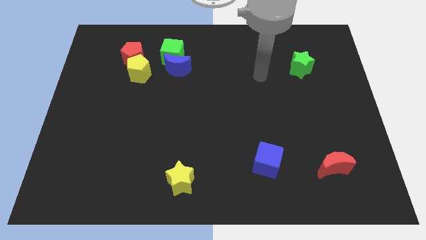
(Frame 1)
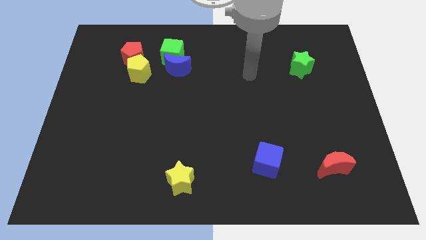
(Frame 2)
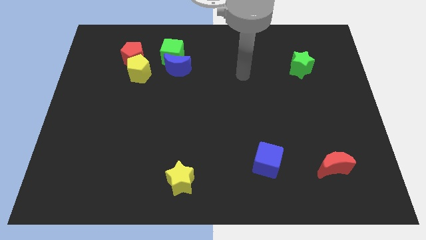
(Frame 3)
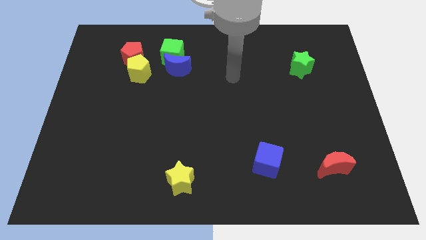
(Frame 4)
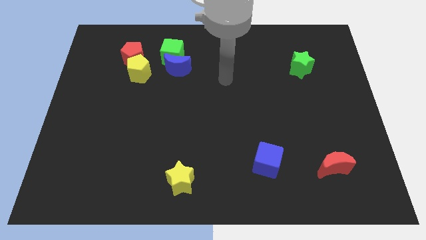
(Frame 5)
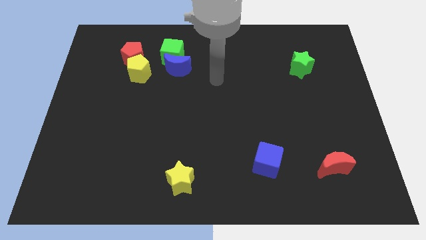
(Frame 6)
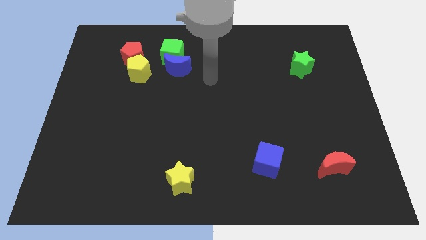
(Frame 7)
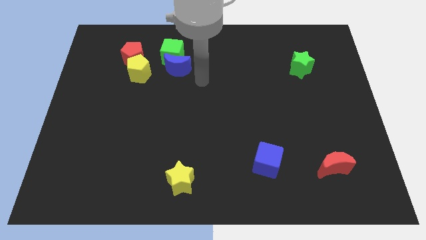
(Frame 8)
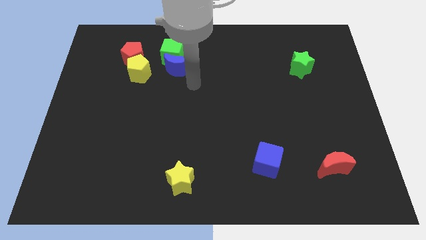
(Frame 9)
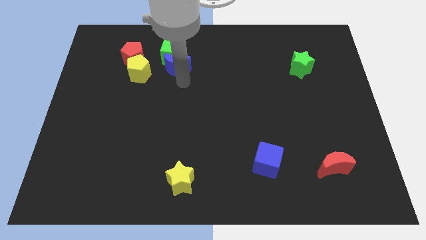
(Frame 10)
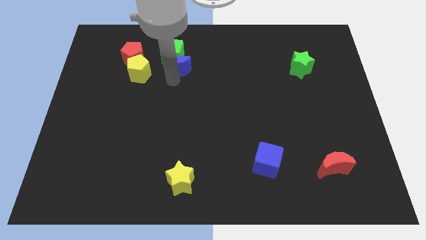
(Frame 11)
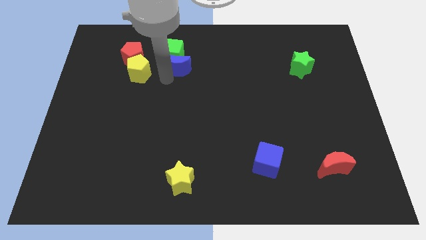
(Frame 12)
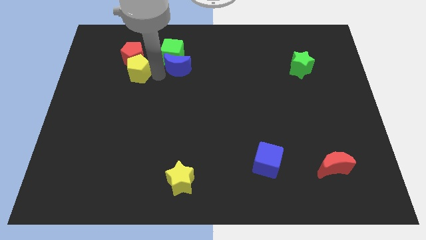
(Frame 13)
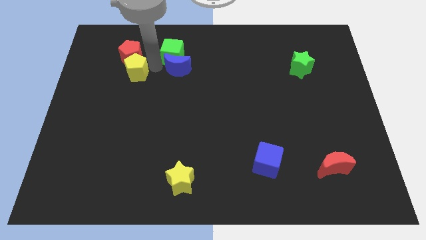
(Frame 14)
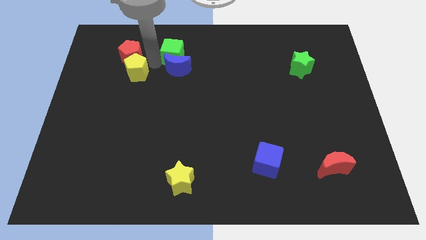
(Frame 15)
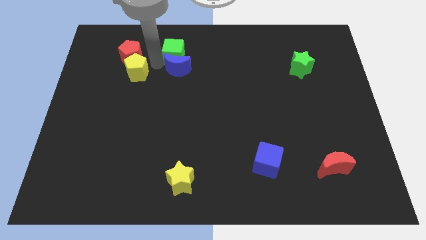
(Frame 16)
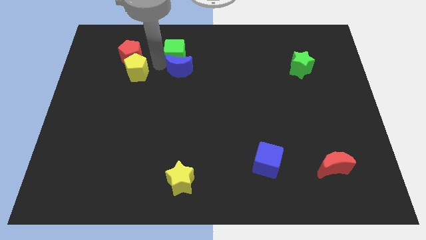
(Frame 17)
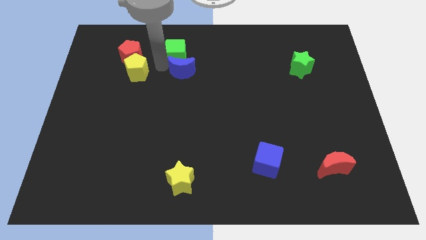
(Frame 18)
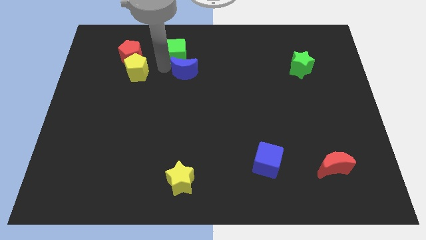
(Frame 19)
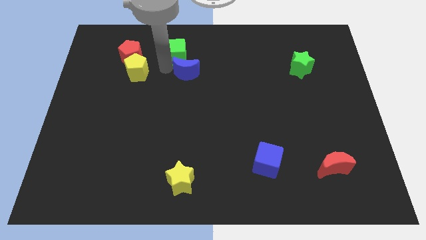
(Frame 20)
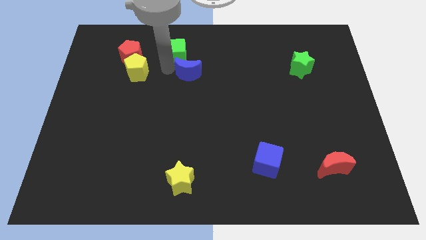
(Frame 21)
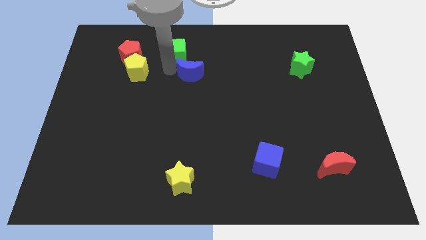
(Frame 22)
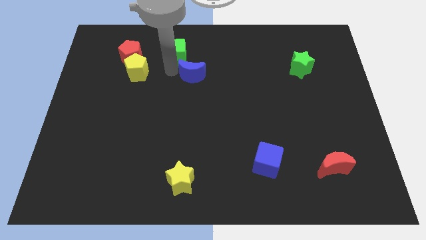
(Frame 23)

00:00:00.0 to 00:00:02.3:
separate the blue moon from the green cube and yellow pentagon

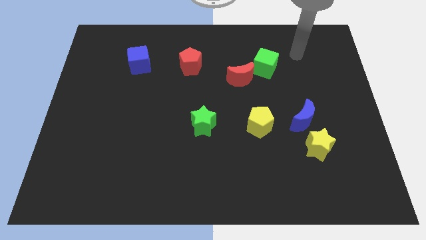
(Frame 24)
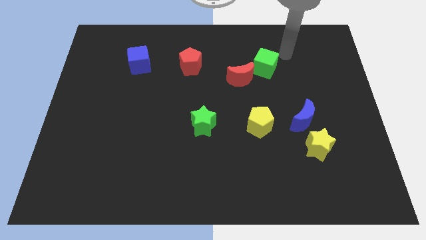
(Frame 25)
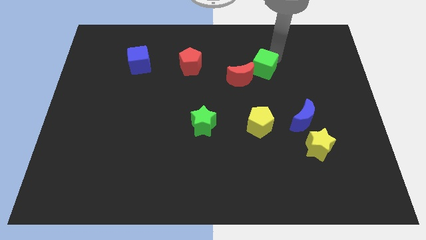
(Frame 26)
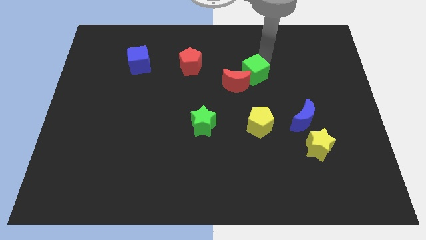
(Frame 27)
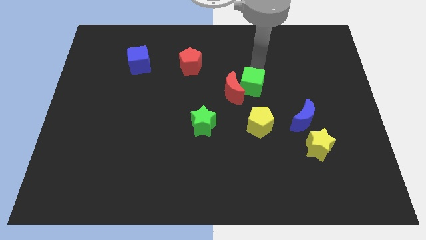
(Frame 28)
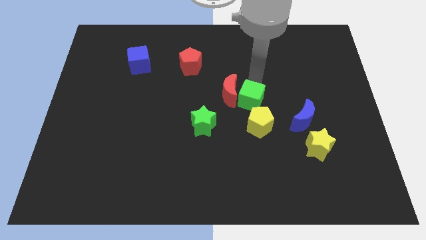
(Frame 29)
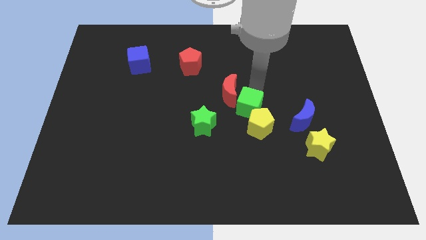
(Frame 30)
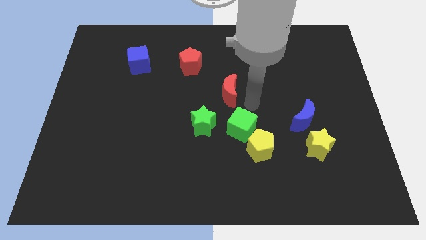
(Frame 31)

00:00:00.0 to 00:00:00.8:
pull the red moon apart from the green cube

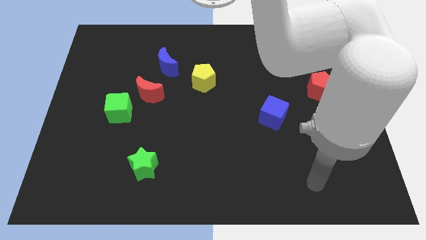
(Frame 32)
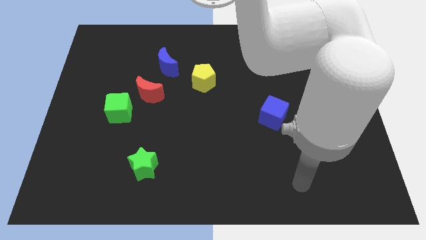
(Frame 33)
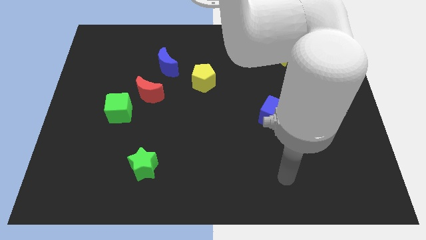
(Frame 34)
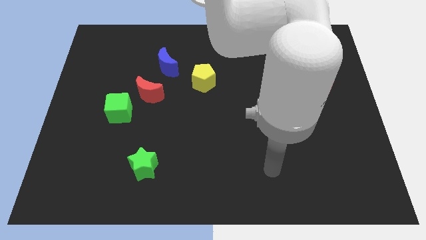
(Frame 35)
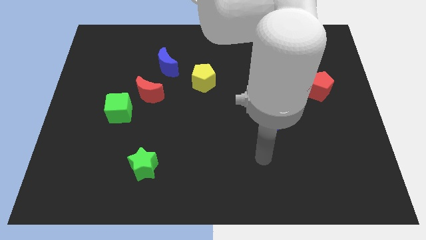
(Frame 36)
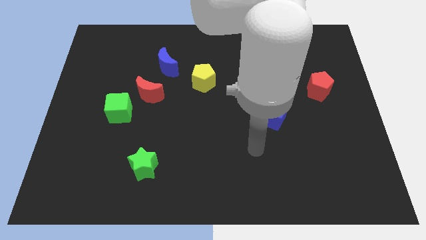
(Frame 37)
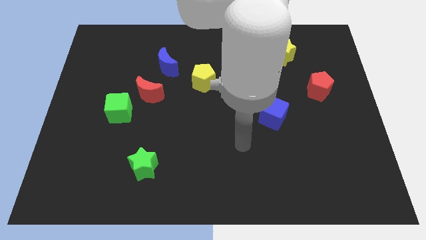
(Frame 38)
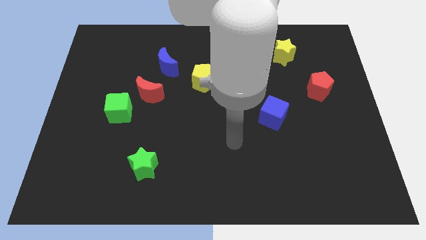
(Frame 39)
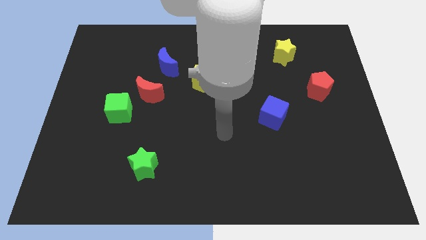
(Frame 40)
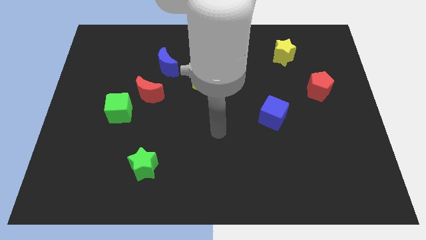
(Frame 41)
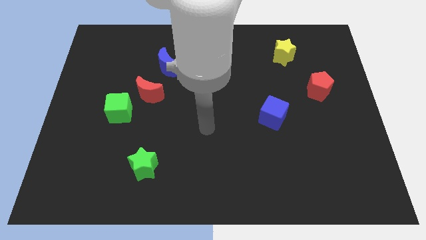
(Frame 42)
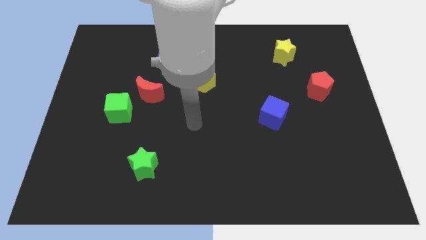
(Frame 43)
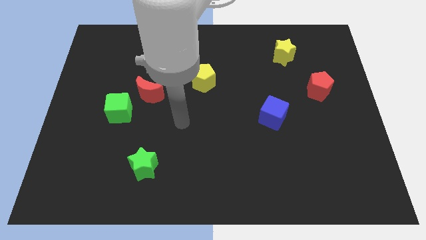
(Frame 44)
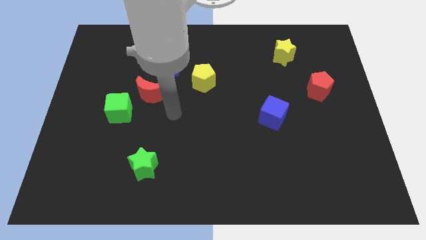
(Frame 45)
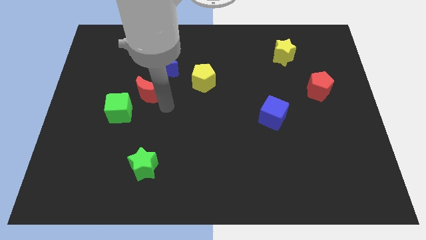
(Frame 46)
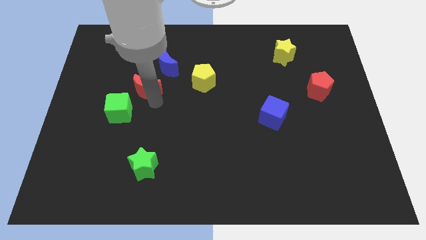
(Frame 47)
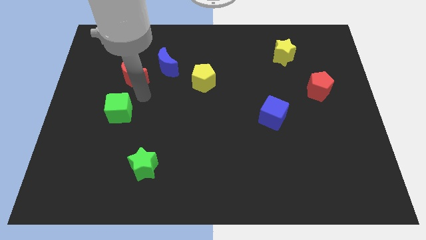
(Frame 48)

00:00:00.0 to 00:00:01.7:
pull the green cube apart from the red moon

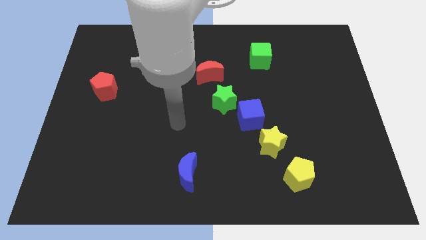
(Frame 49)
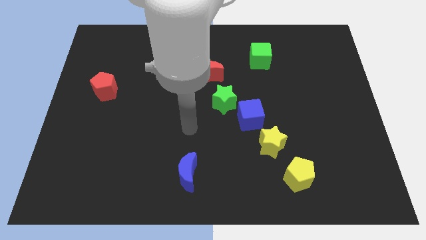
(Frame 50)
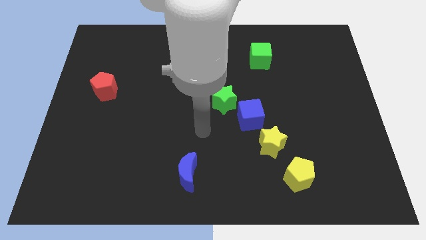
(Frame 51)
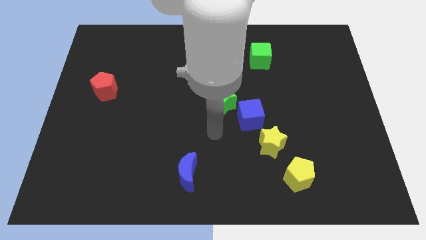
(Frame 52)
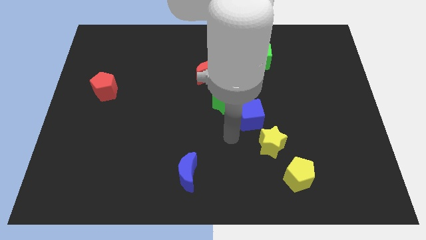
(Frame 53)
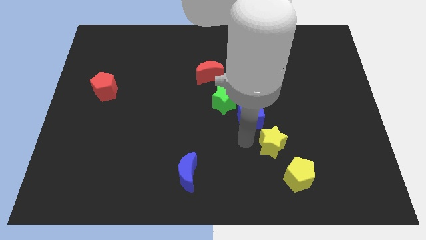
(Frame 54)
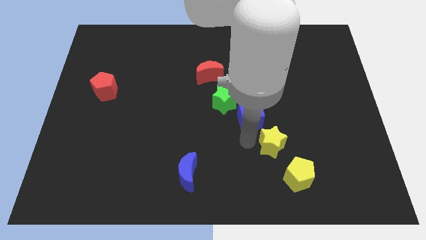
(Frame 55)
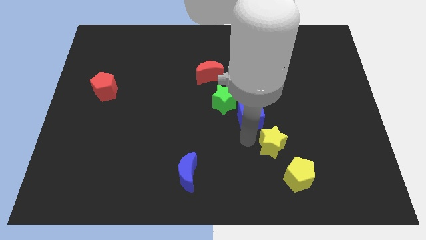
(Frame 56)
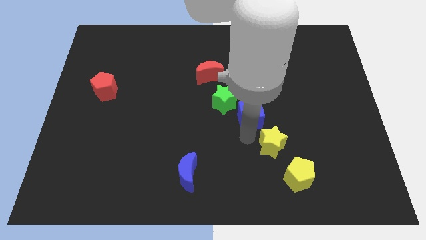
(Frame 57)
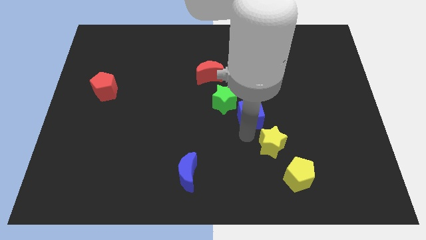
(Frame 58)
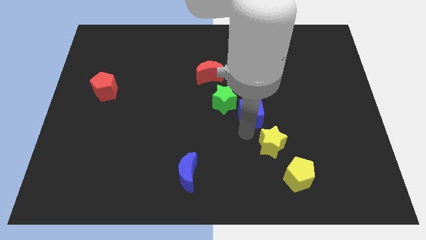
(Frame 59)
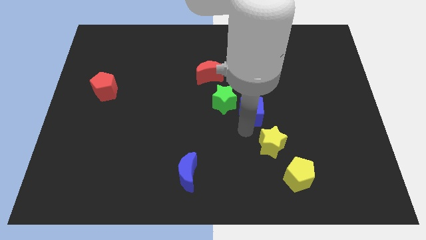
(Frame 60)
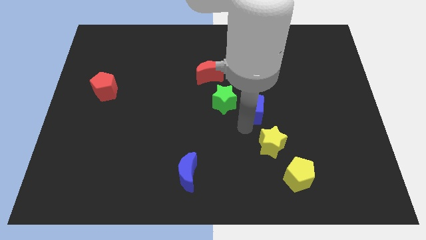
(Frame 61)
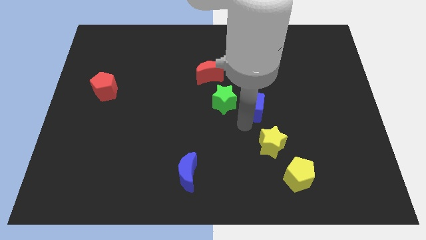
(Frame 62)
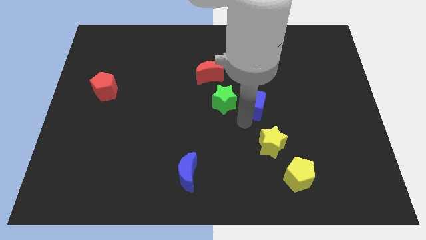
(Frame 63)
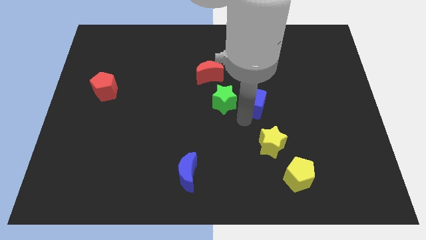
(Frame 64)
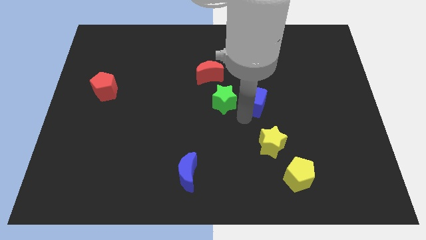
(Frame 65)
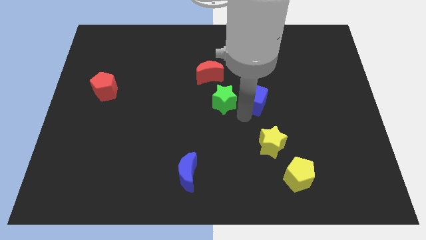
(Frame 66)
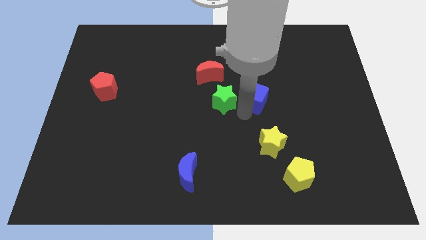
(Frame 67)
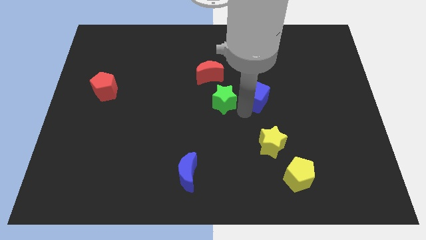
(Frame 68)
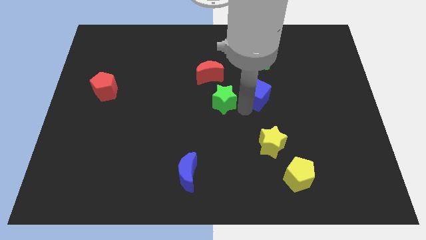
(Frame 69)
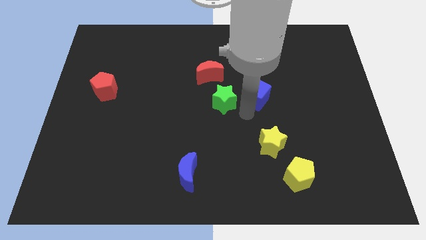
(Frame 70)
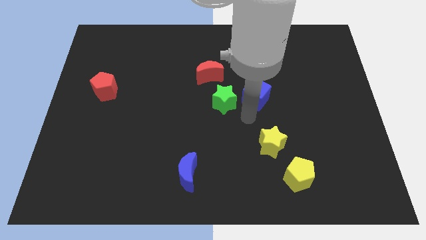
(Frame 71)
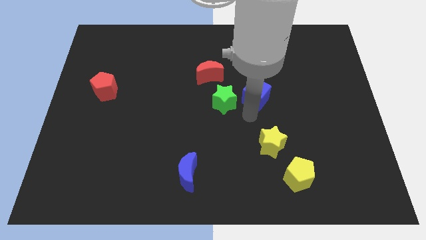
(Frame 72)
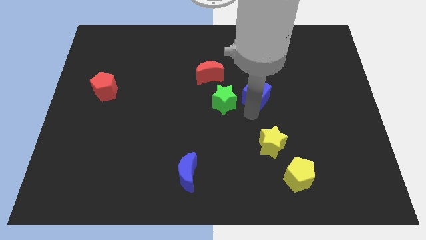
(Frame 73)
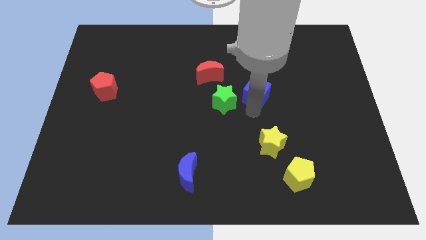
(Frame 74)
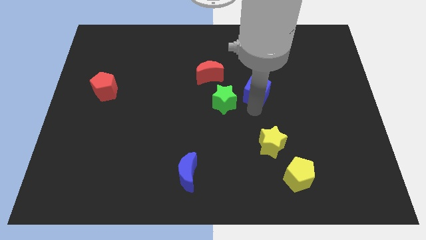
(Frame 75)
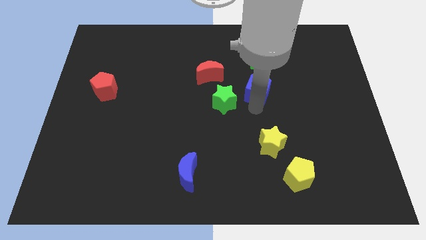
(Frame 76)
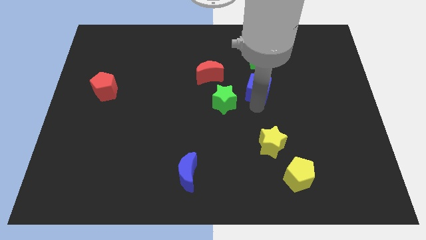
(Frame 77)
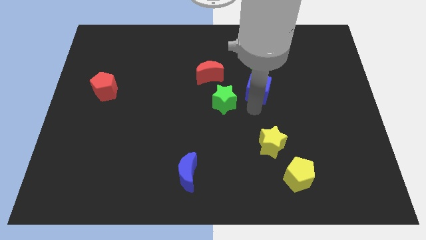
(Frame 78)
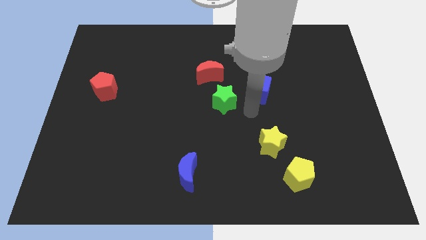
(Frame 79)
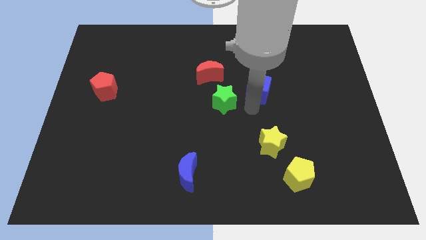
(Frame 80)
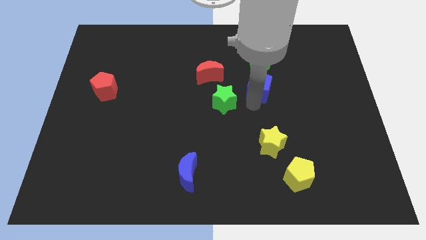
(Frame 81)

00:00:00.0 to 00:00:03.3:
separate the blue cube from the green star and yellow star

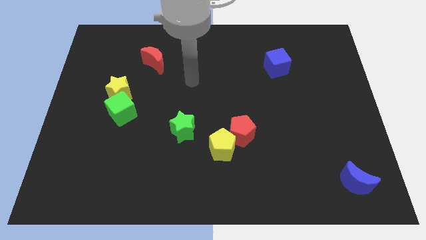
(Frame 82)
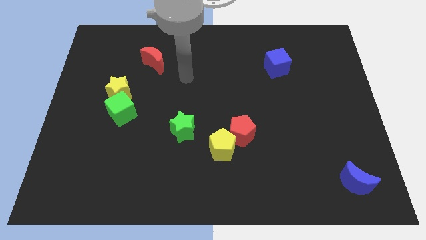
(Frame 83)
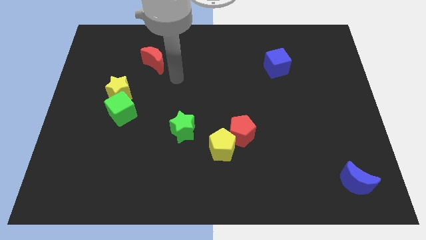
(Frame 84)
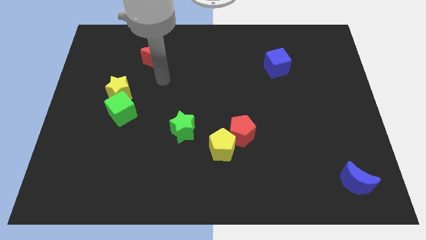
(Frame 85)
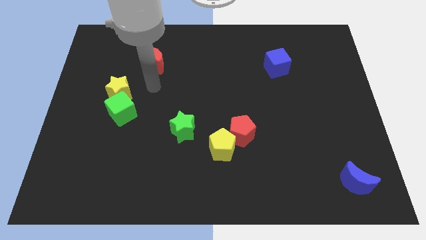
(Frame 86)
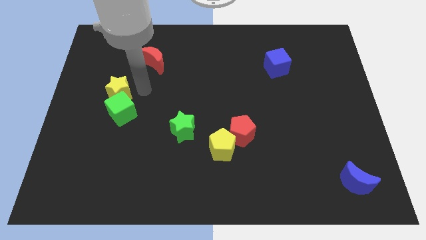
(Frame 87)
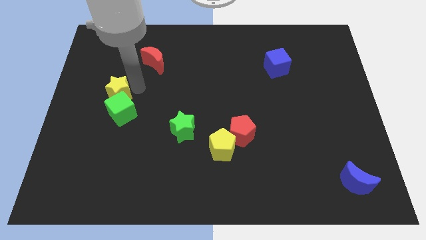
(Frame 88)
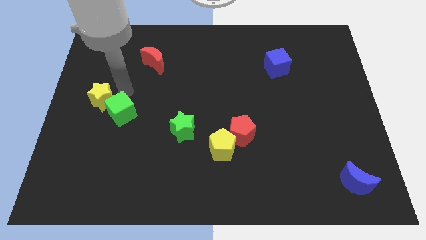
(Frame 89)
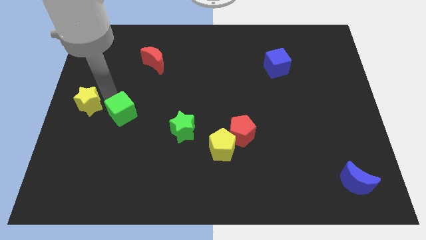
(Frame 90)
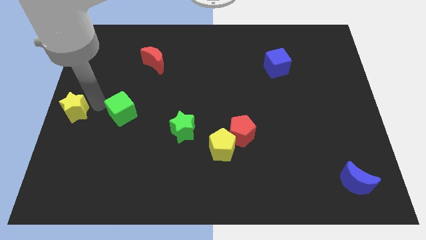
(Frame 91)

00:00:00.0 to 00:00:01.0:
pull the green cube apart from the yellow star

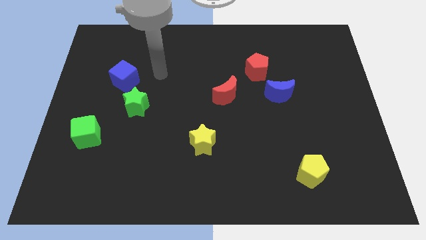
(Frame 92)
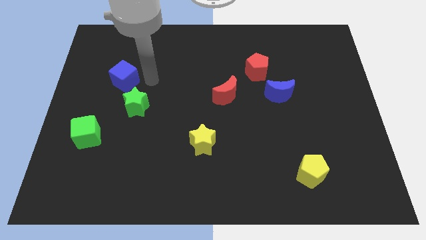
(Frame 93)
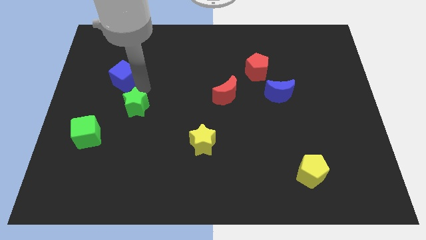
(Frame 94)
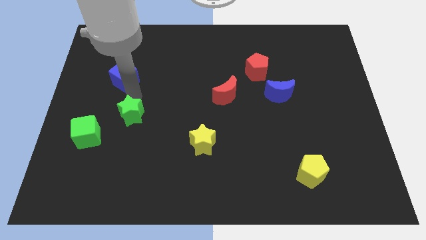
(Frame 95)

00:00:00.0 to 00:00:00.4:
pull the blue cube apart from the green star
